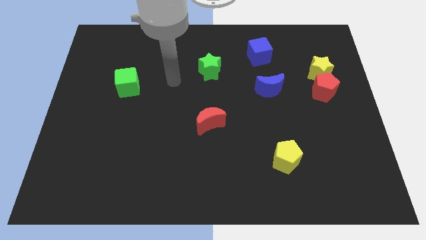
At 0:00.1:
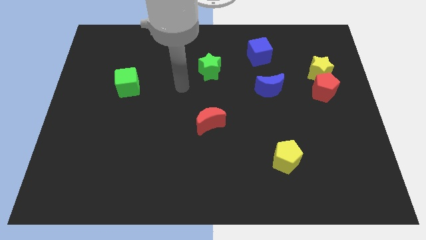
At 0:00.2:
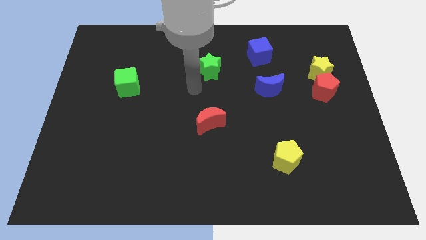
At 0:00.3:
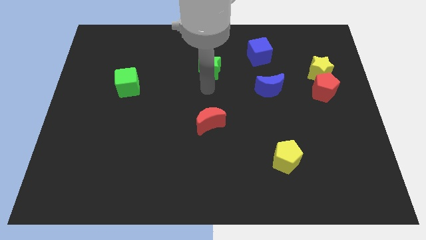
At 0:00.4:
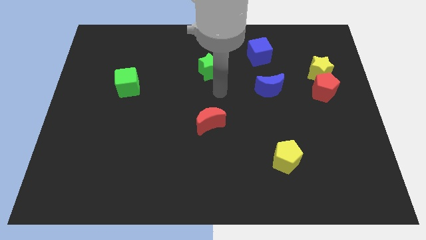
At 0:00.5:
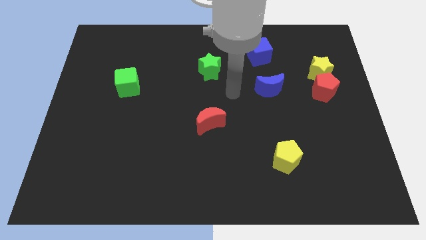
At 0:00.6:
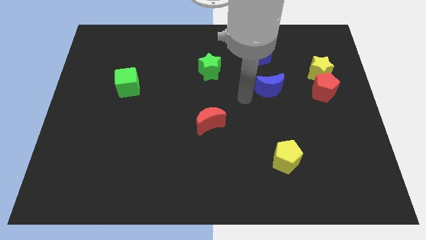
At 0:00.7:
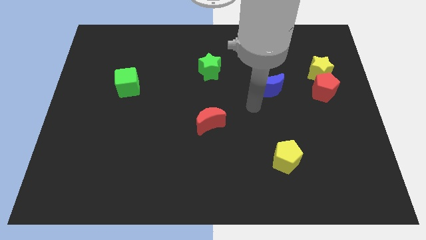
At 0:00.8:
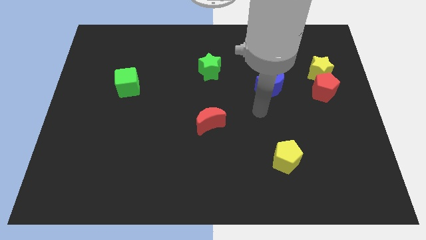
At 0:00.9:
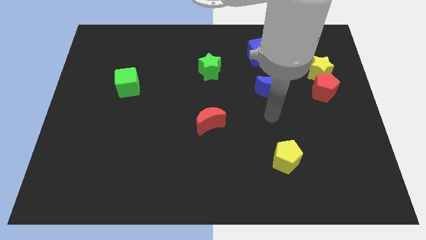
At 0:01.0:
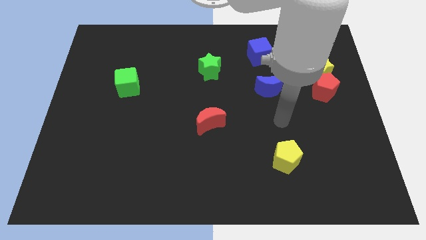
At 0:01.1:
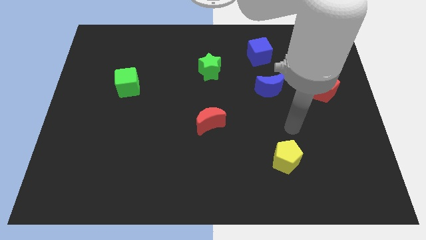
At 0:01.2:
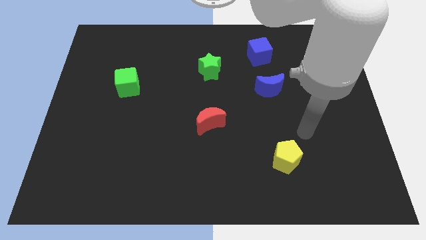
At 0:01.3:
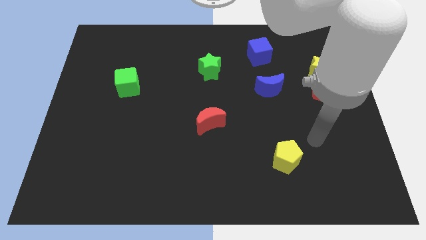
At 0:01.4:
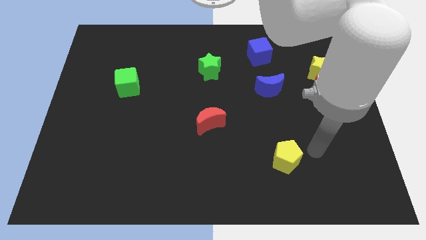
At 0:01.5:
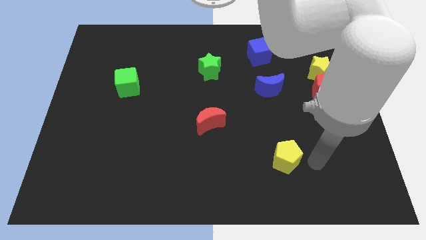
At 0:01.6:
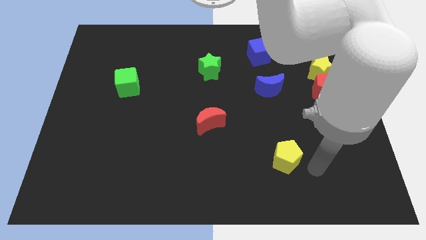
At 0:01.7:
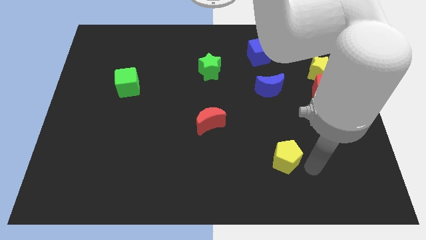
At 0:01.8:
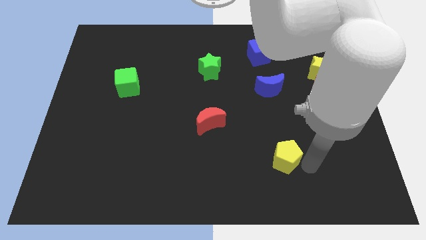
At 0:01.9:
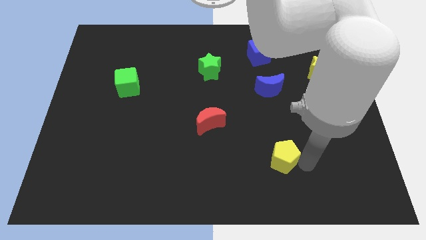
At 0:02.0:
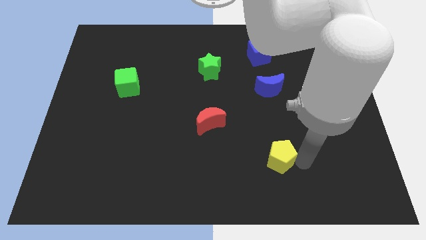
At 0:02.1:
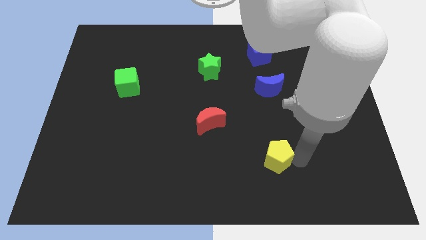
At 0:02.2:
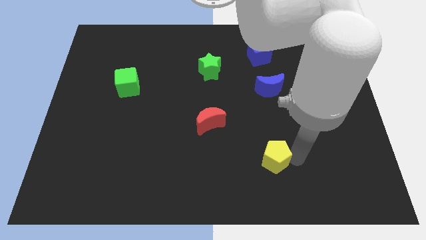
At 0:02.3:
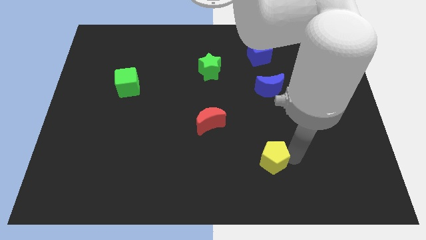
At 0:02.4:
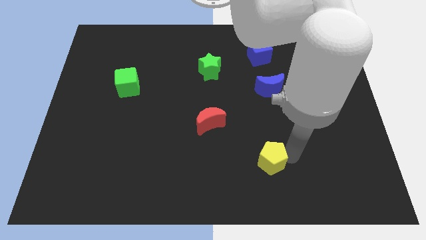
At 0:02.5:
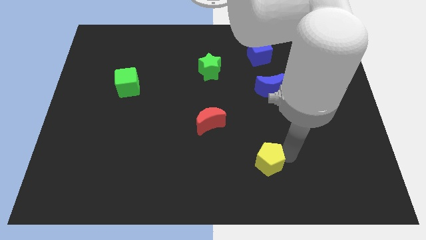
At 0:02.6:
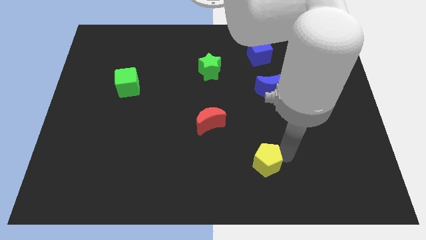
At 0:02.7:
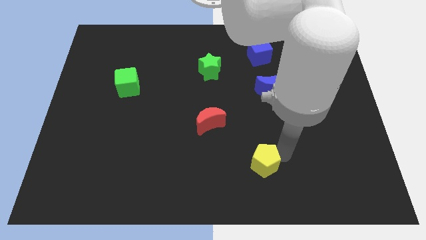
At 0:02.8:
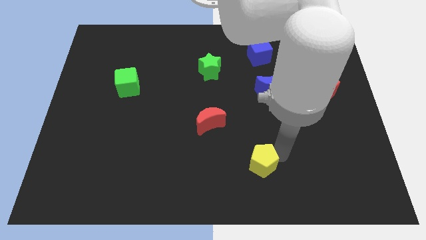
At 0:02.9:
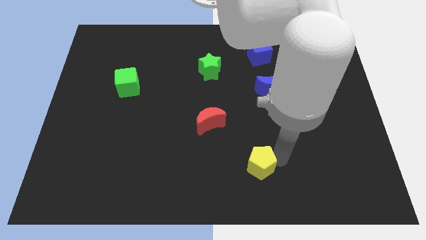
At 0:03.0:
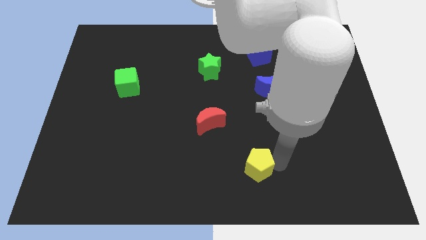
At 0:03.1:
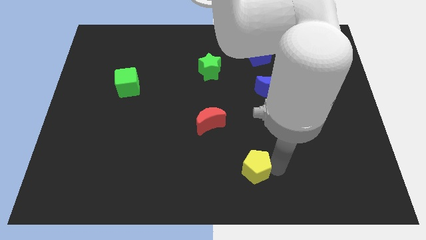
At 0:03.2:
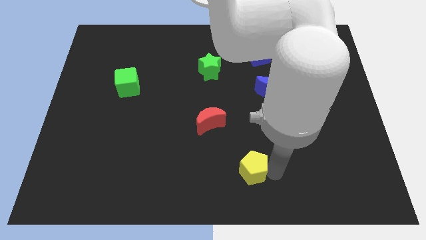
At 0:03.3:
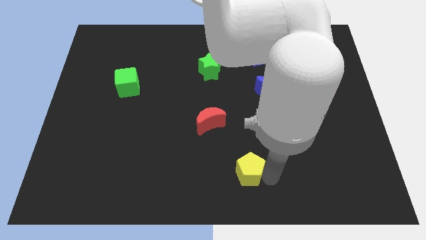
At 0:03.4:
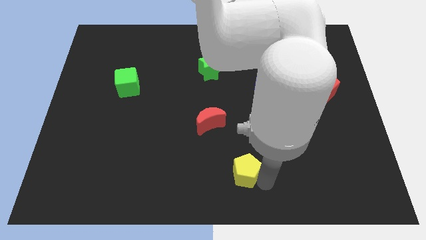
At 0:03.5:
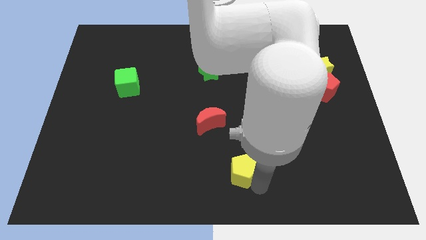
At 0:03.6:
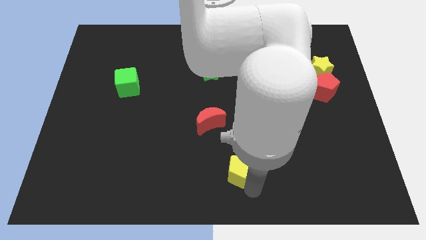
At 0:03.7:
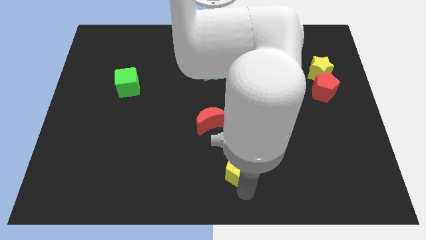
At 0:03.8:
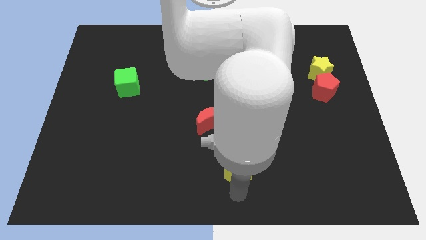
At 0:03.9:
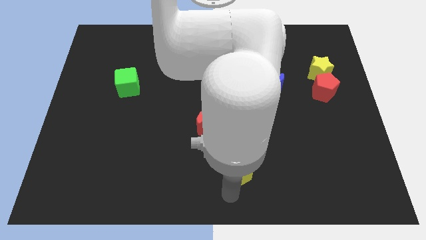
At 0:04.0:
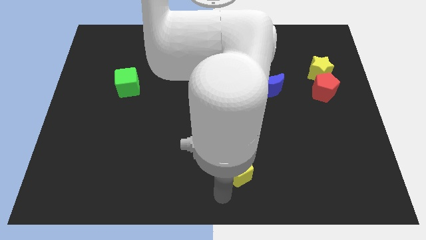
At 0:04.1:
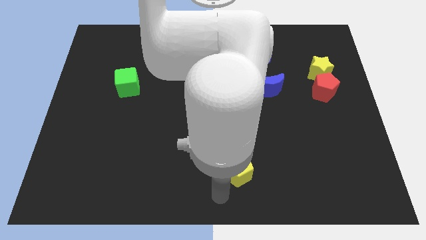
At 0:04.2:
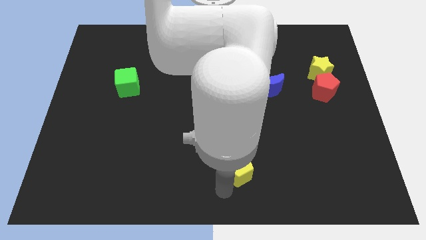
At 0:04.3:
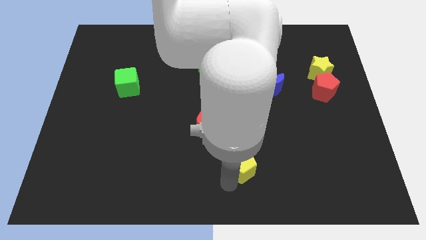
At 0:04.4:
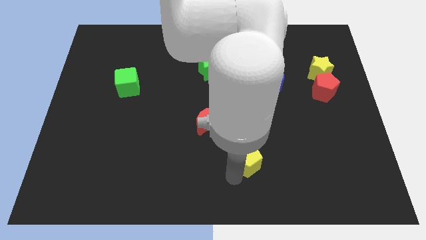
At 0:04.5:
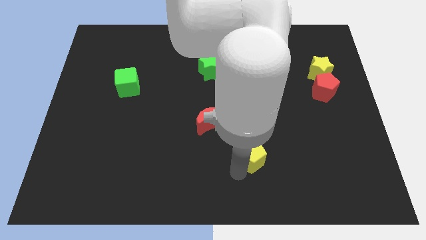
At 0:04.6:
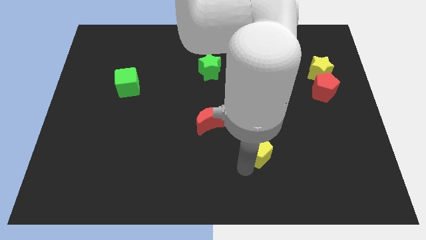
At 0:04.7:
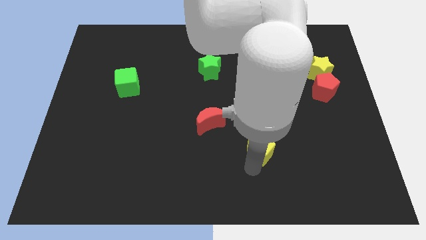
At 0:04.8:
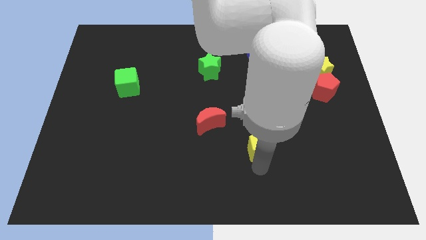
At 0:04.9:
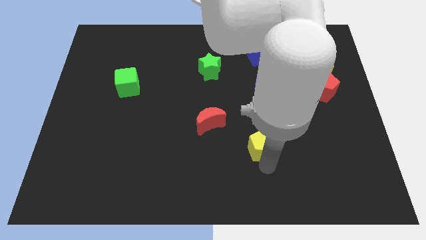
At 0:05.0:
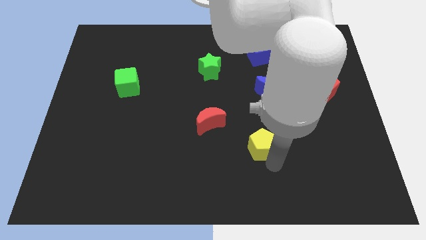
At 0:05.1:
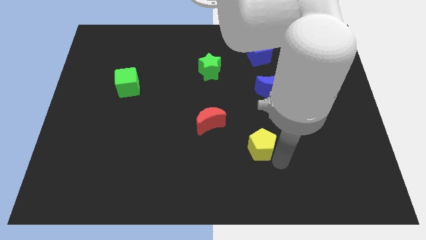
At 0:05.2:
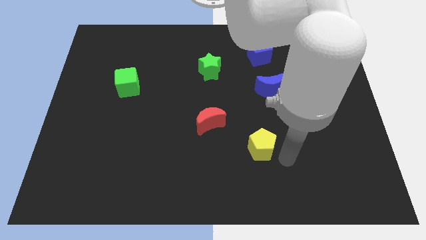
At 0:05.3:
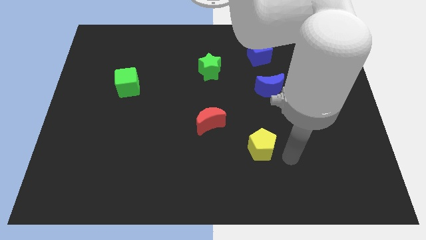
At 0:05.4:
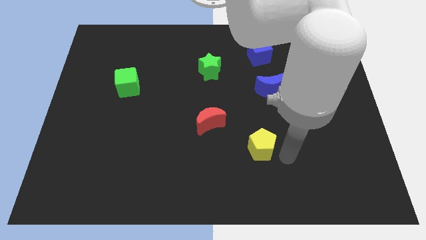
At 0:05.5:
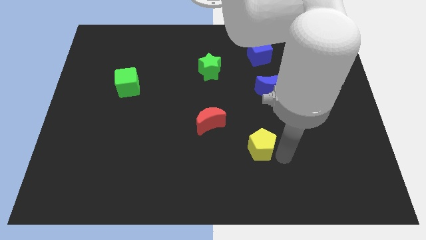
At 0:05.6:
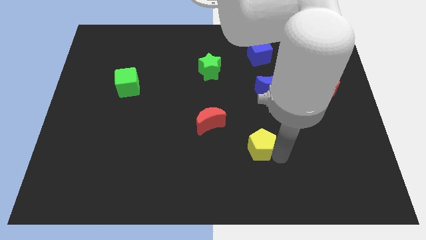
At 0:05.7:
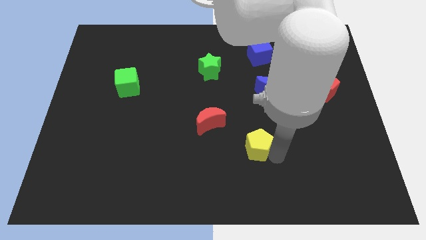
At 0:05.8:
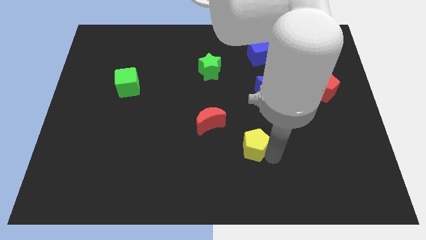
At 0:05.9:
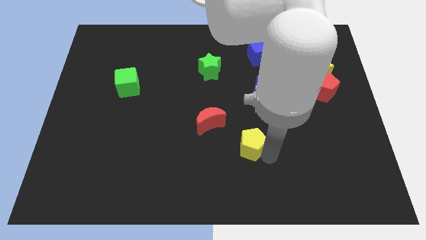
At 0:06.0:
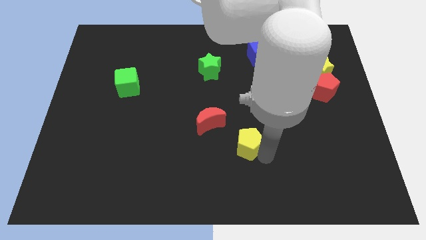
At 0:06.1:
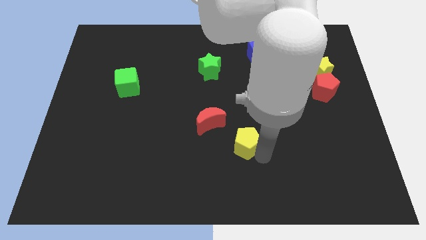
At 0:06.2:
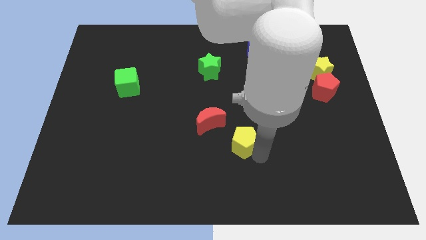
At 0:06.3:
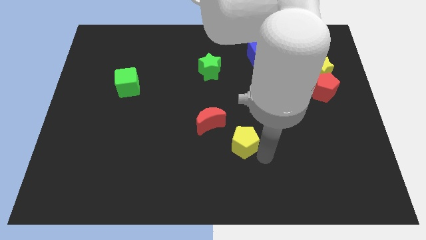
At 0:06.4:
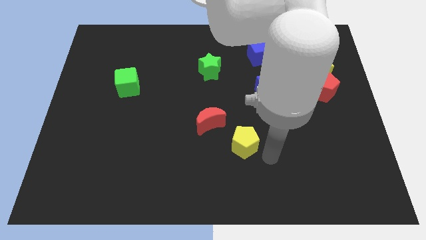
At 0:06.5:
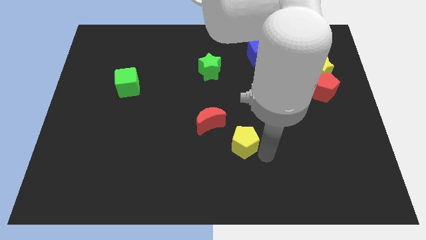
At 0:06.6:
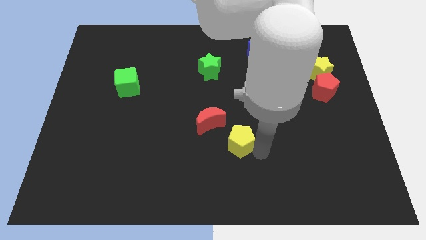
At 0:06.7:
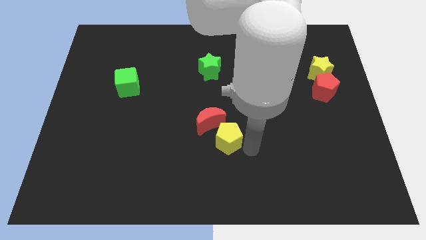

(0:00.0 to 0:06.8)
slide the yellow pentagon towards the red moon

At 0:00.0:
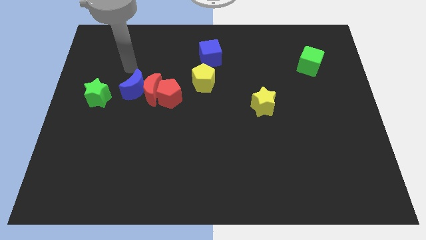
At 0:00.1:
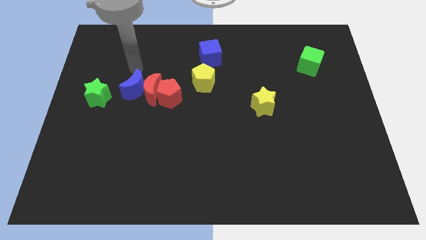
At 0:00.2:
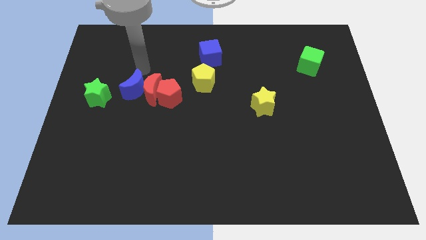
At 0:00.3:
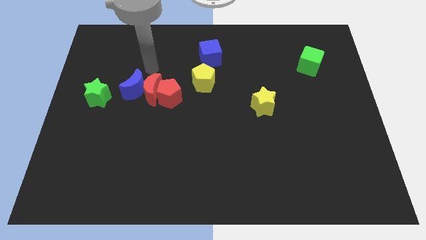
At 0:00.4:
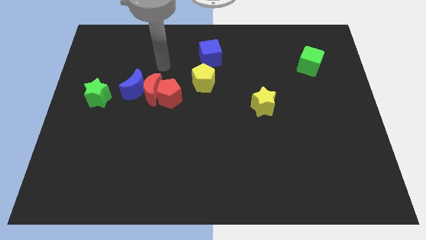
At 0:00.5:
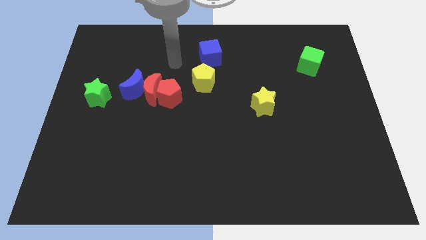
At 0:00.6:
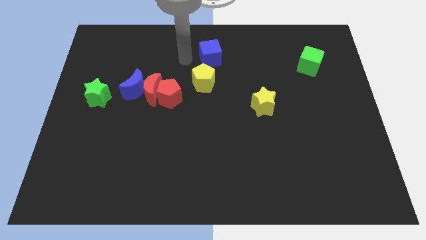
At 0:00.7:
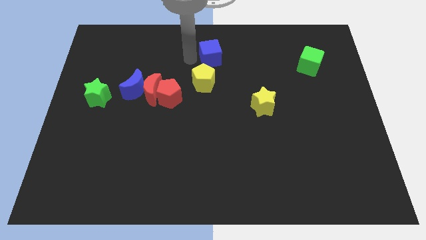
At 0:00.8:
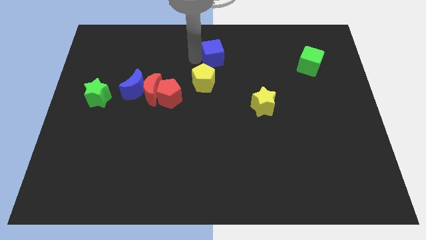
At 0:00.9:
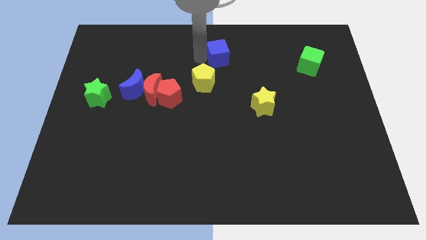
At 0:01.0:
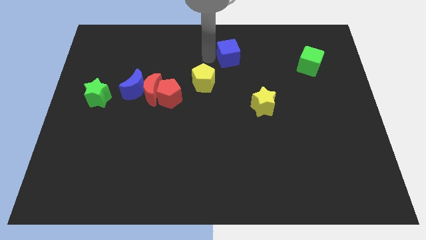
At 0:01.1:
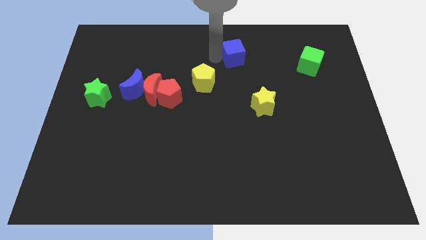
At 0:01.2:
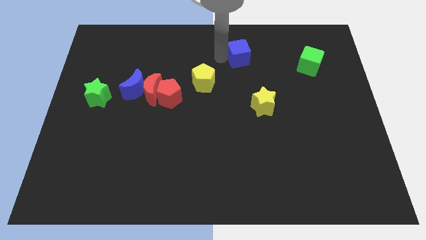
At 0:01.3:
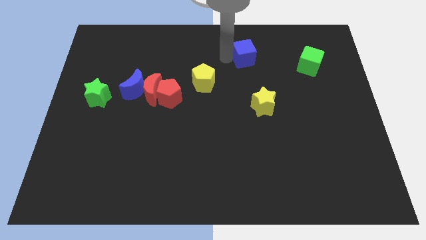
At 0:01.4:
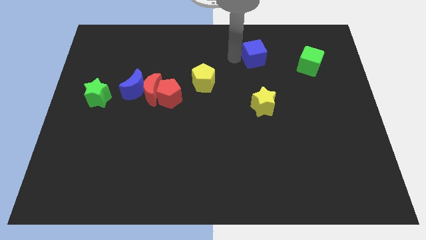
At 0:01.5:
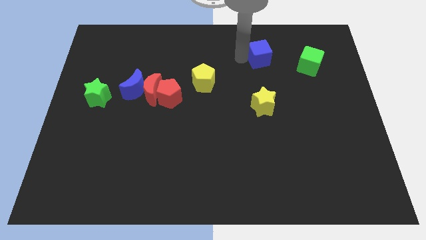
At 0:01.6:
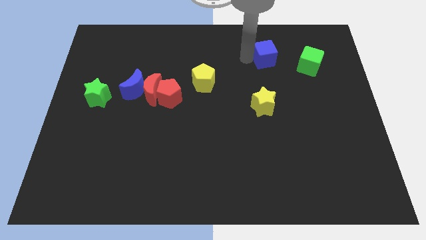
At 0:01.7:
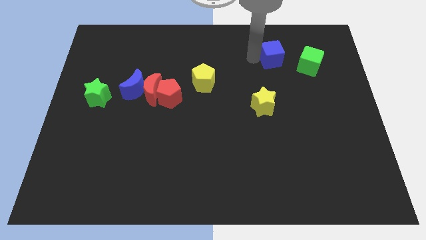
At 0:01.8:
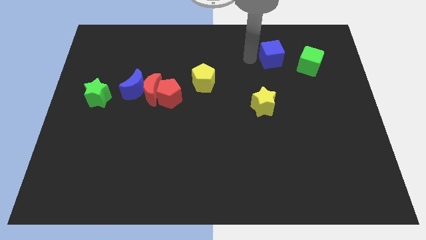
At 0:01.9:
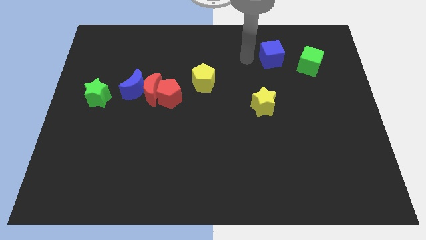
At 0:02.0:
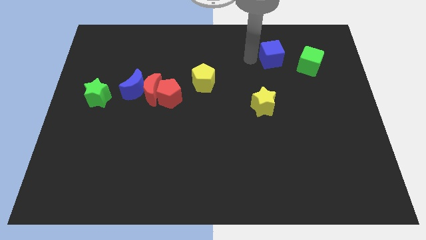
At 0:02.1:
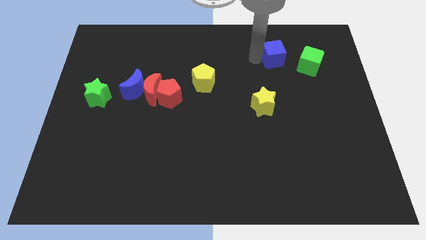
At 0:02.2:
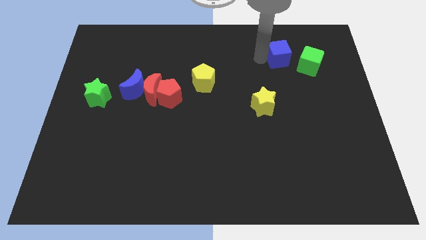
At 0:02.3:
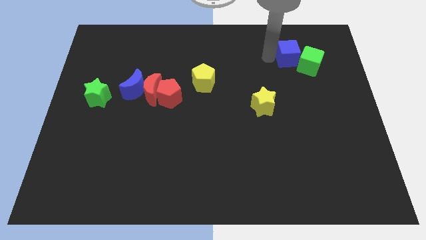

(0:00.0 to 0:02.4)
slide the blue cube close to the green cube
